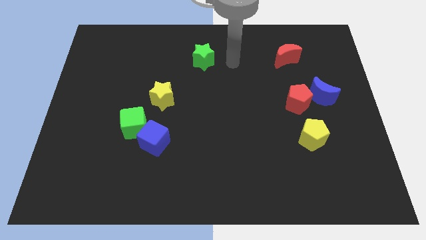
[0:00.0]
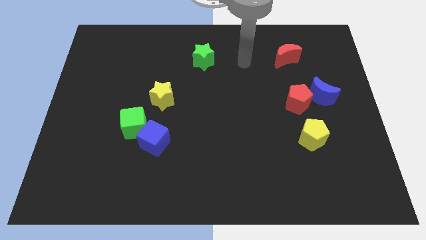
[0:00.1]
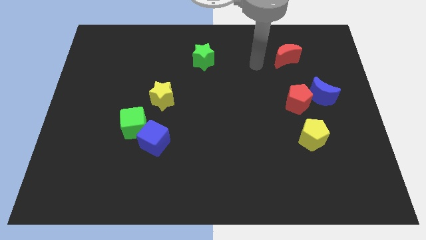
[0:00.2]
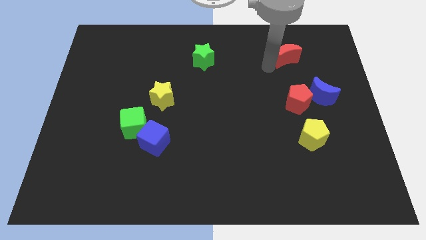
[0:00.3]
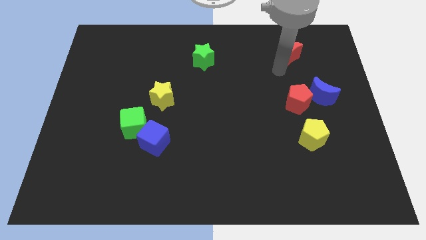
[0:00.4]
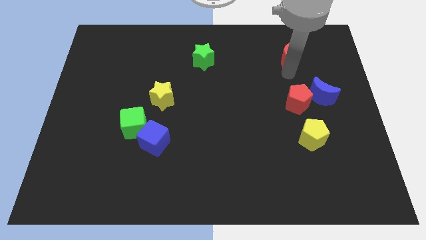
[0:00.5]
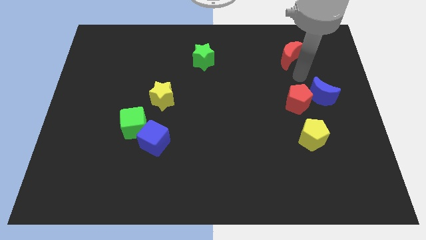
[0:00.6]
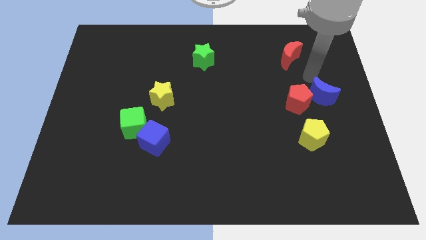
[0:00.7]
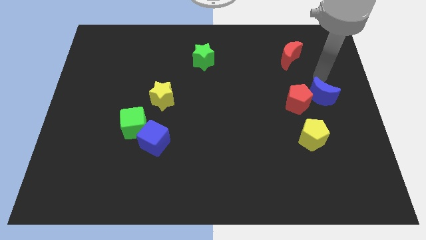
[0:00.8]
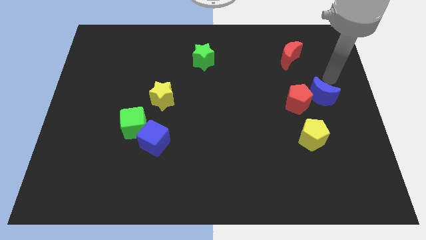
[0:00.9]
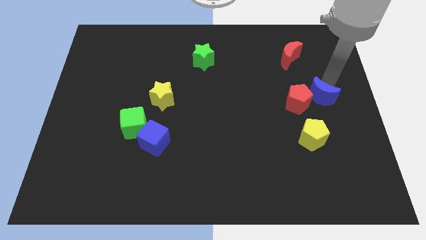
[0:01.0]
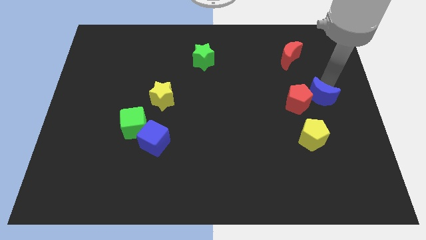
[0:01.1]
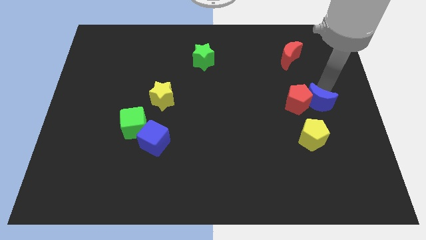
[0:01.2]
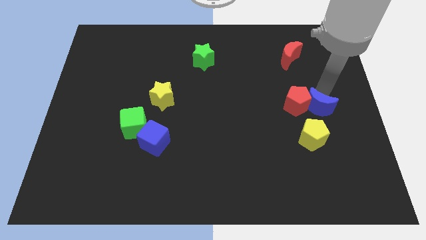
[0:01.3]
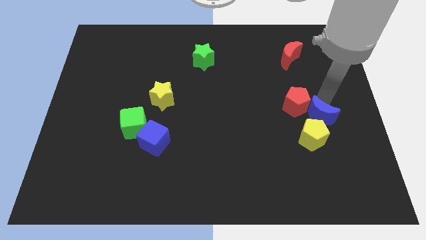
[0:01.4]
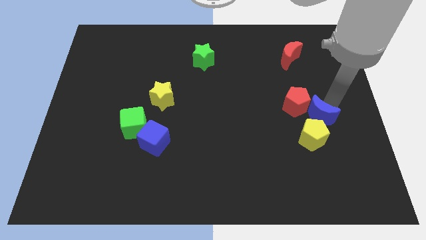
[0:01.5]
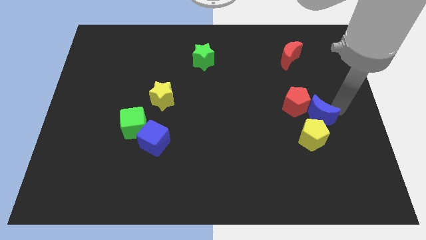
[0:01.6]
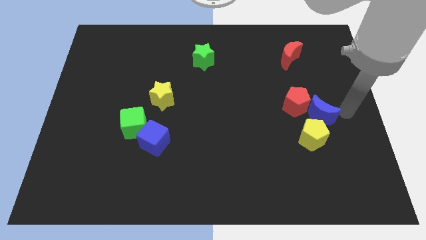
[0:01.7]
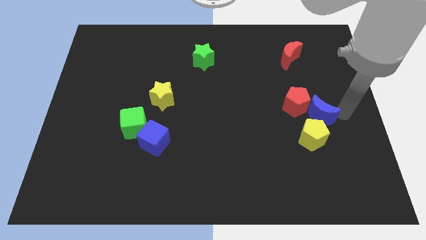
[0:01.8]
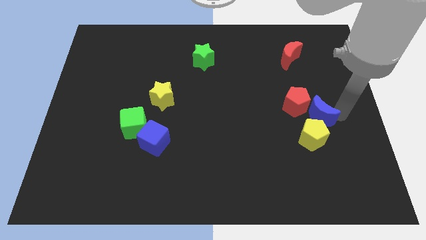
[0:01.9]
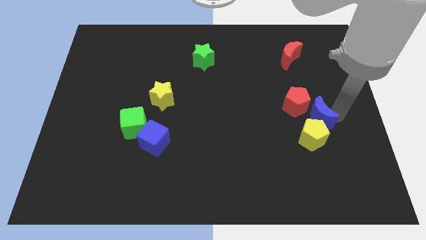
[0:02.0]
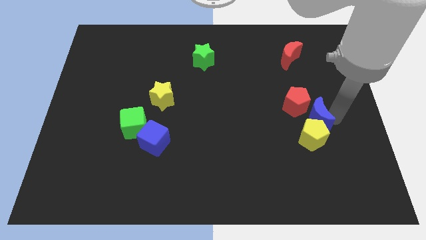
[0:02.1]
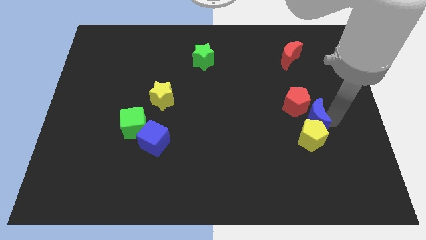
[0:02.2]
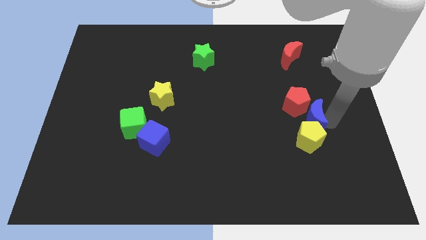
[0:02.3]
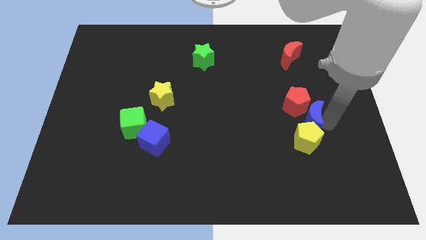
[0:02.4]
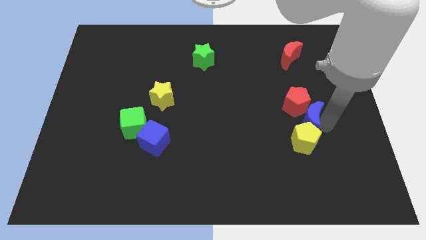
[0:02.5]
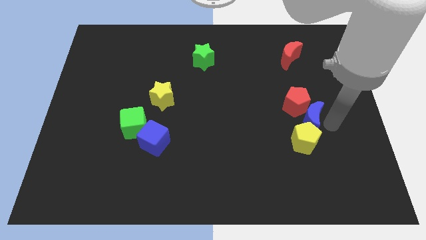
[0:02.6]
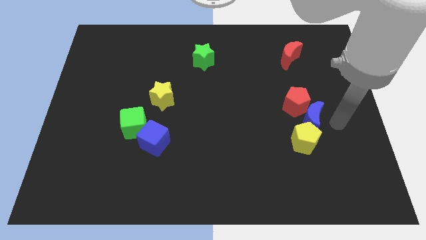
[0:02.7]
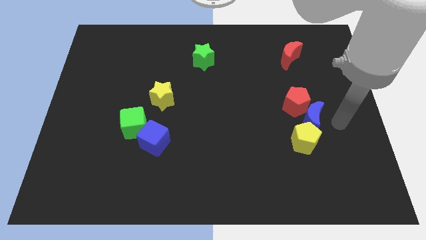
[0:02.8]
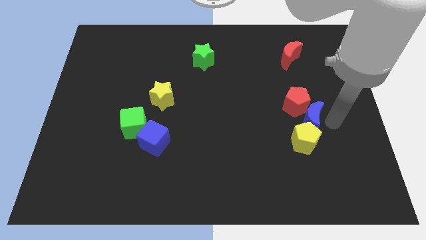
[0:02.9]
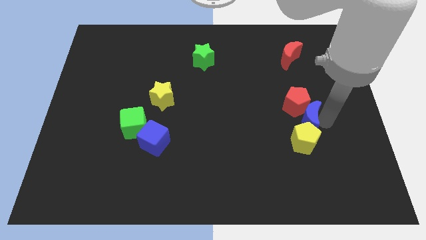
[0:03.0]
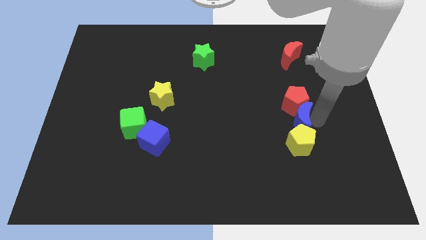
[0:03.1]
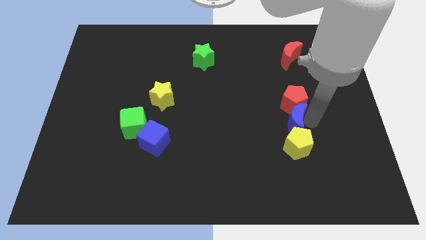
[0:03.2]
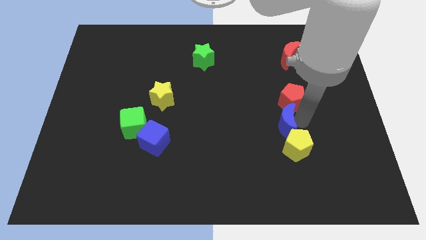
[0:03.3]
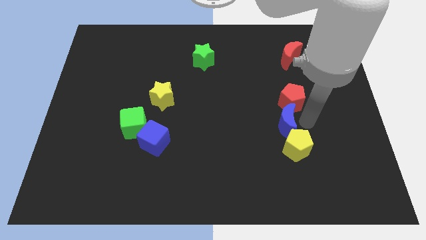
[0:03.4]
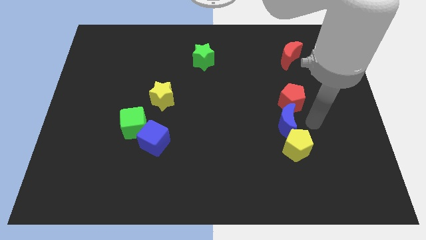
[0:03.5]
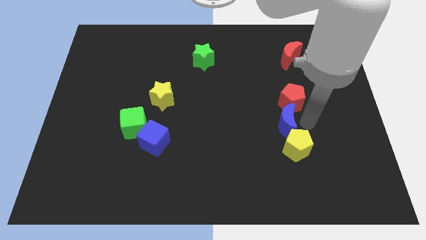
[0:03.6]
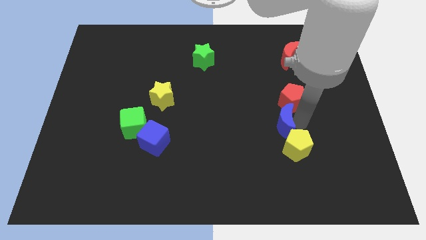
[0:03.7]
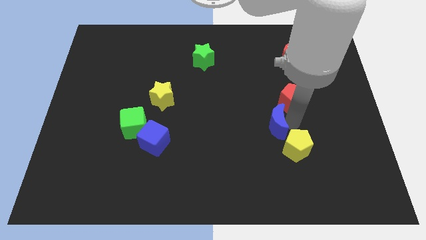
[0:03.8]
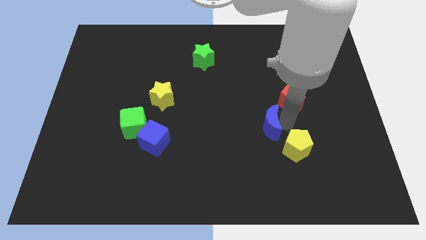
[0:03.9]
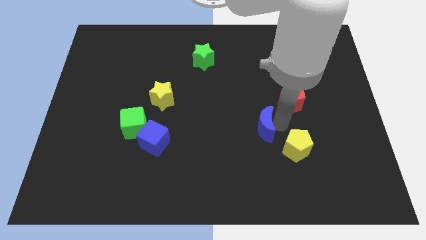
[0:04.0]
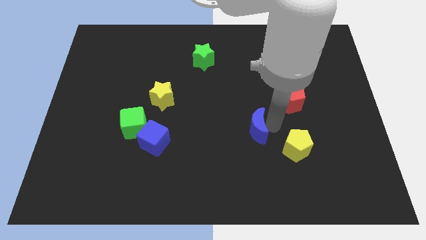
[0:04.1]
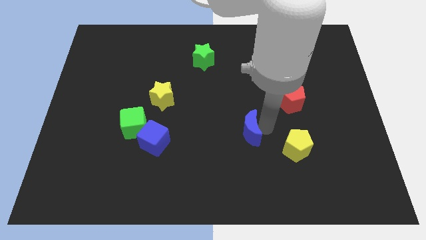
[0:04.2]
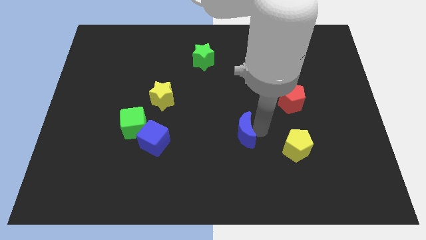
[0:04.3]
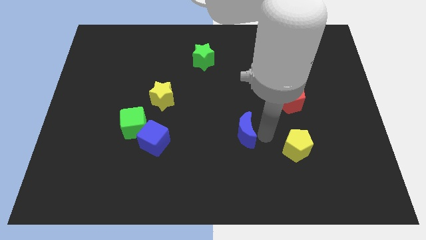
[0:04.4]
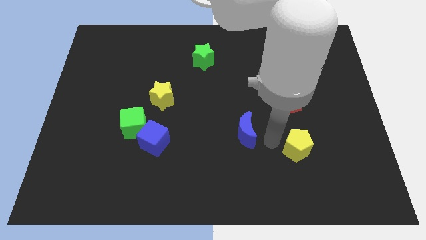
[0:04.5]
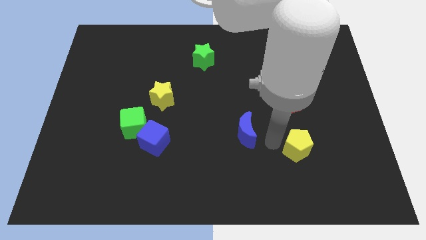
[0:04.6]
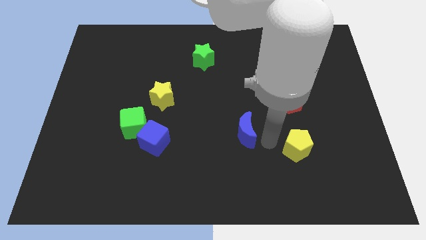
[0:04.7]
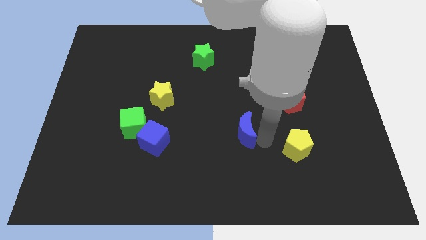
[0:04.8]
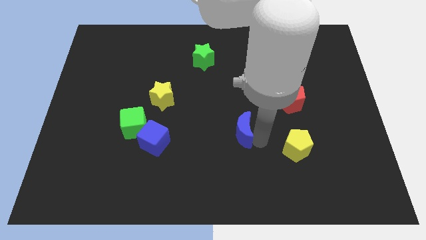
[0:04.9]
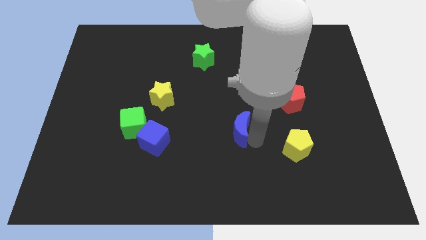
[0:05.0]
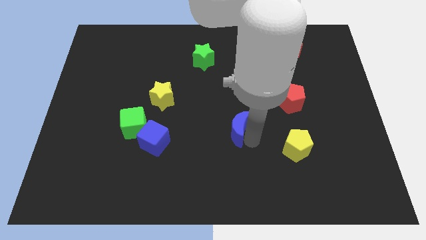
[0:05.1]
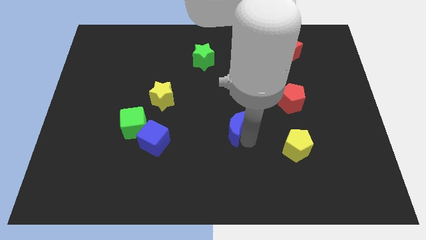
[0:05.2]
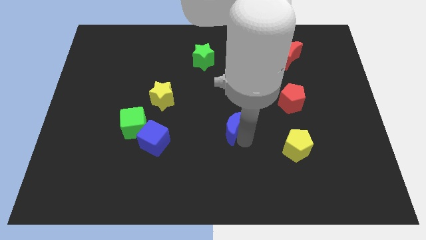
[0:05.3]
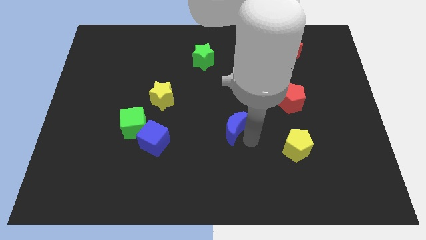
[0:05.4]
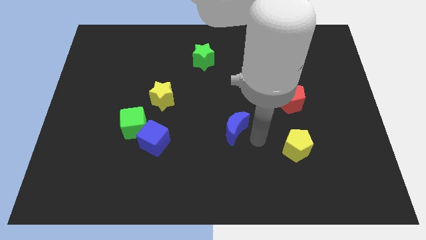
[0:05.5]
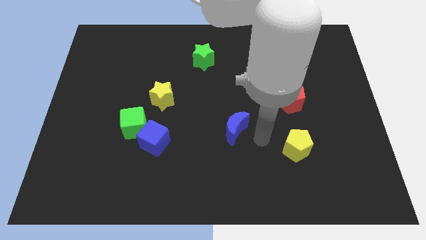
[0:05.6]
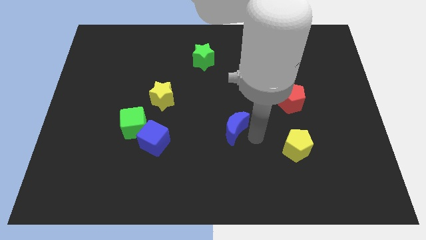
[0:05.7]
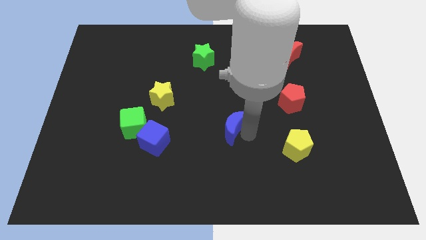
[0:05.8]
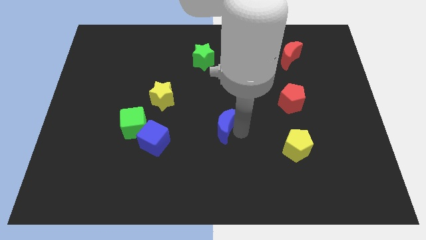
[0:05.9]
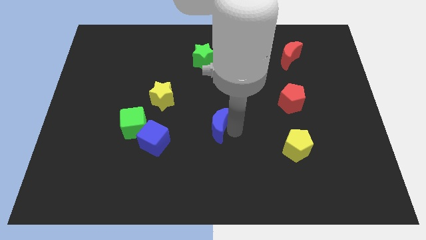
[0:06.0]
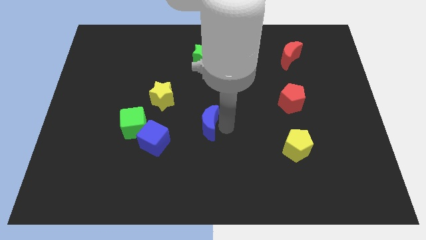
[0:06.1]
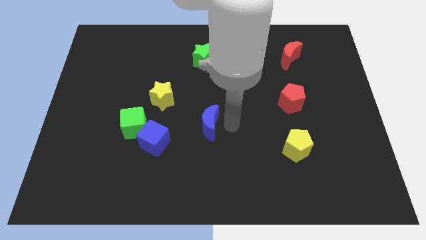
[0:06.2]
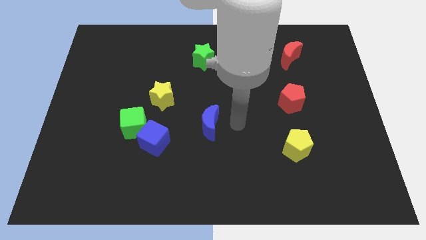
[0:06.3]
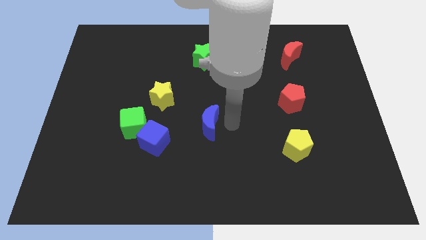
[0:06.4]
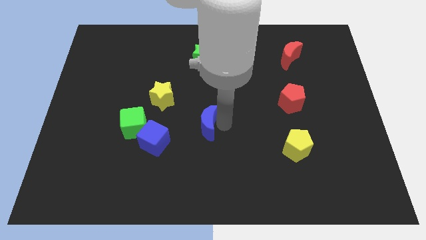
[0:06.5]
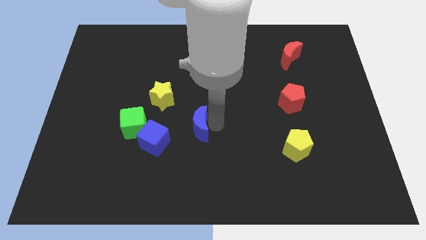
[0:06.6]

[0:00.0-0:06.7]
slide the blue moon to the right side of the green cube

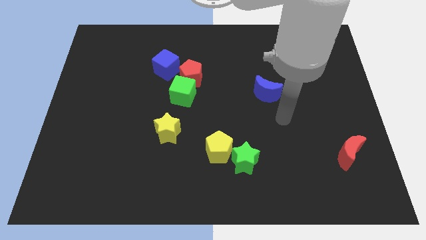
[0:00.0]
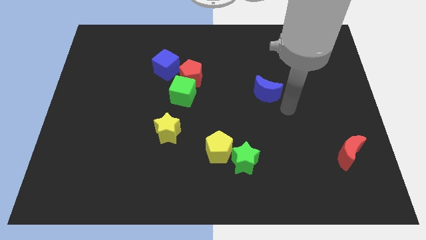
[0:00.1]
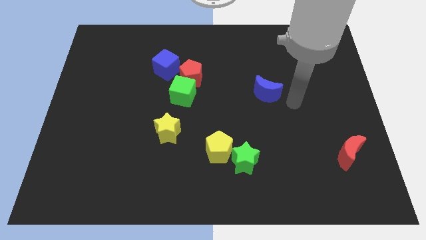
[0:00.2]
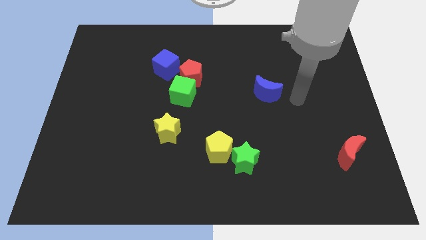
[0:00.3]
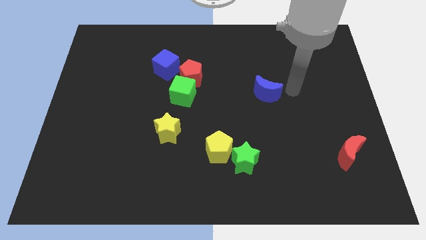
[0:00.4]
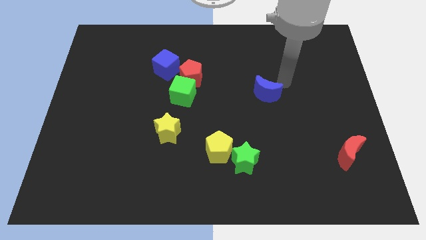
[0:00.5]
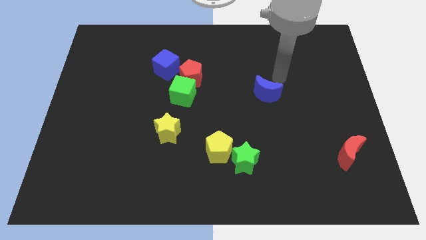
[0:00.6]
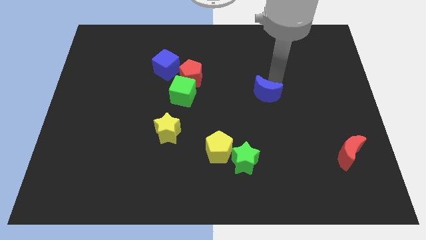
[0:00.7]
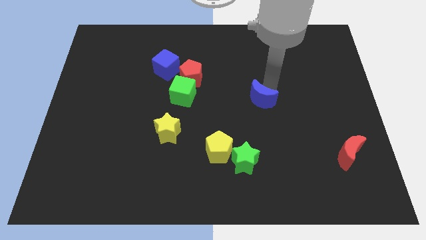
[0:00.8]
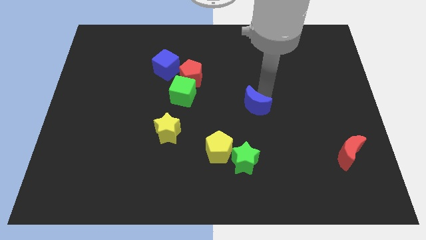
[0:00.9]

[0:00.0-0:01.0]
move the blue moon to the top of the green star
